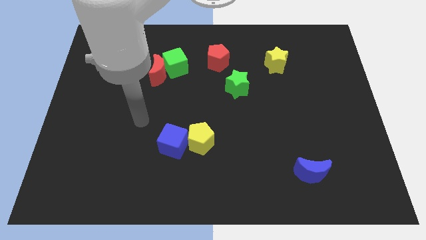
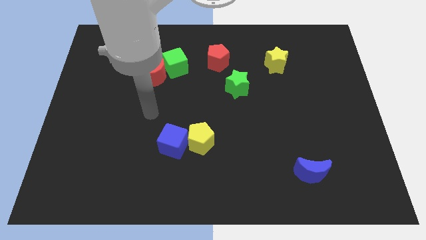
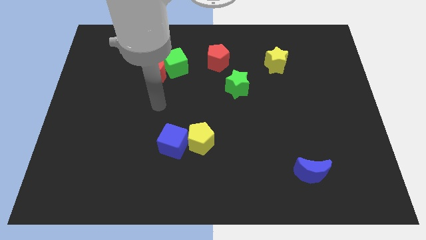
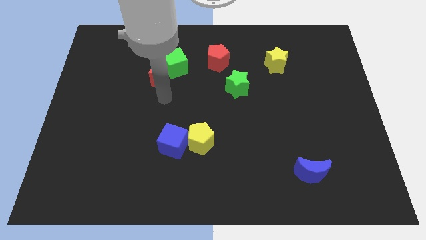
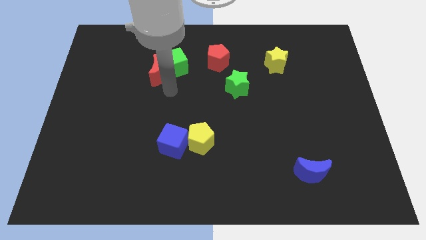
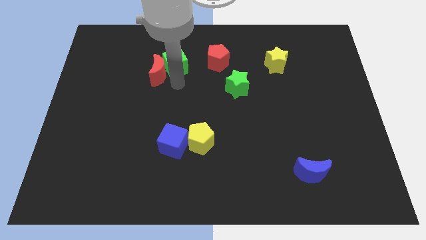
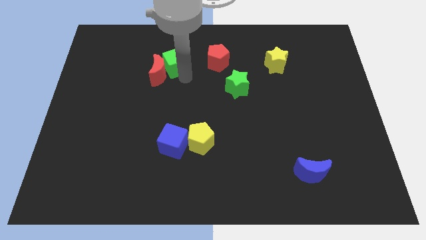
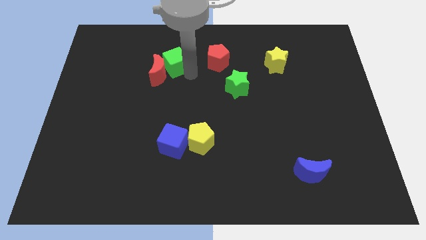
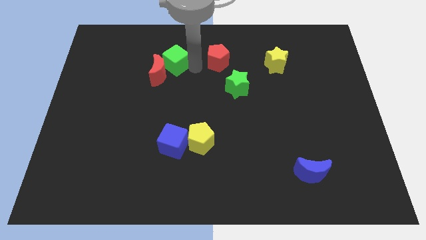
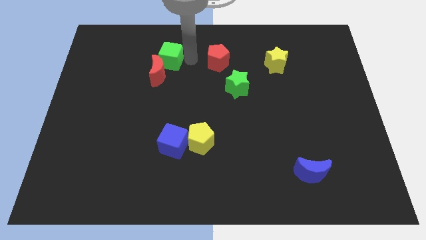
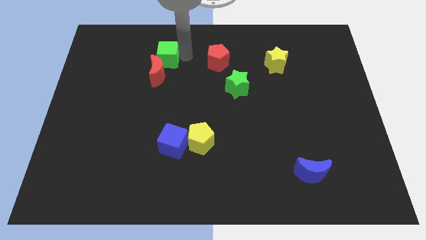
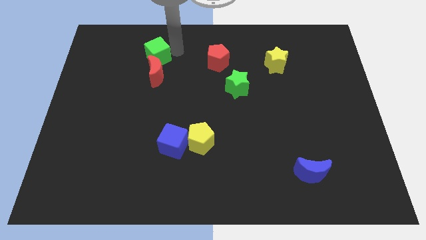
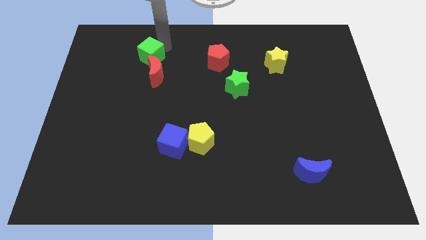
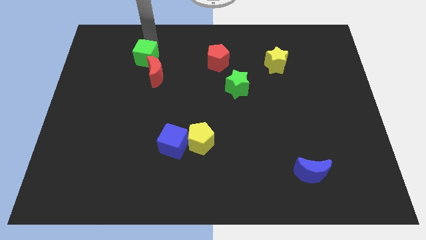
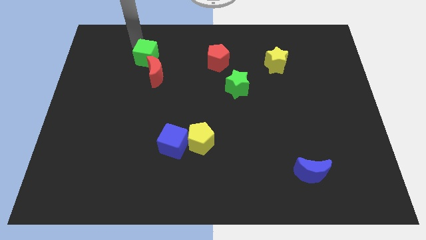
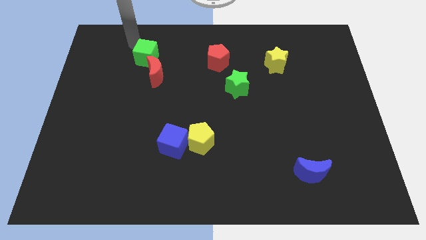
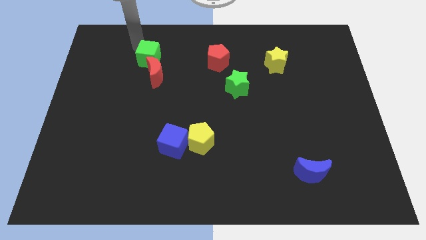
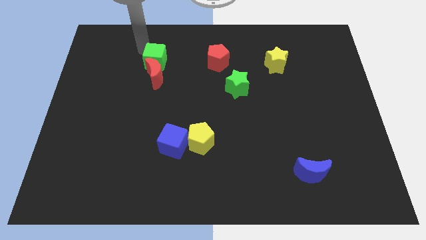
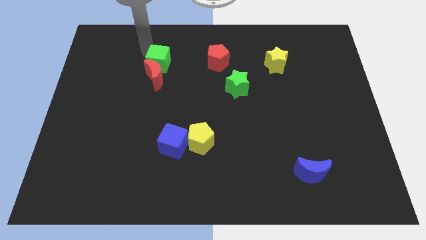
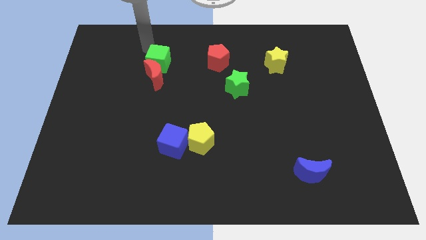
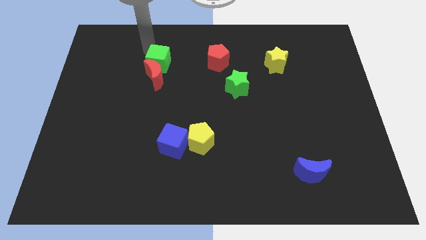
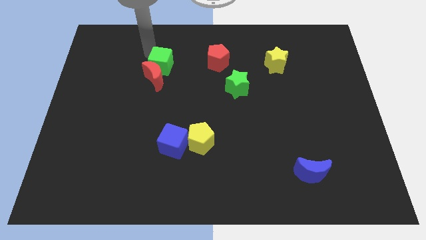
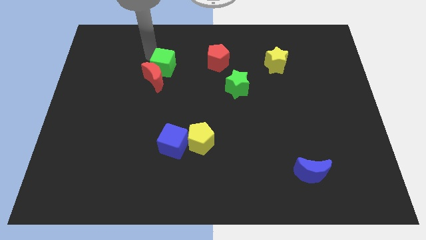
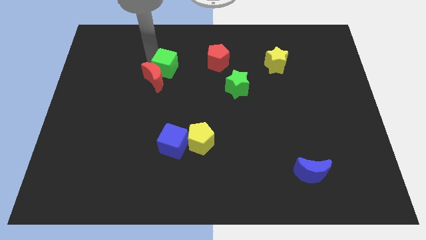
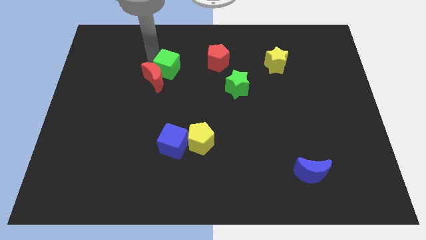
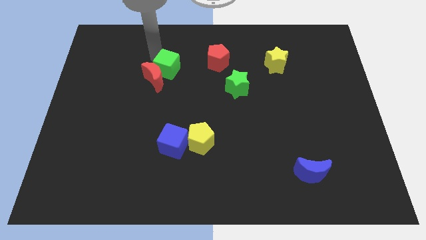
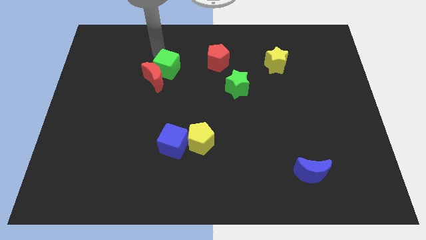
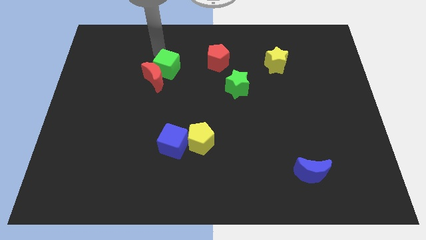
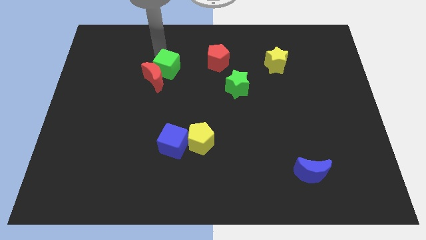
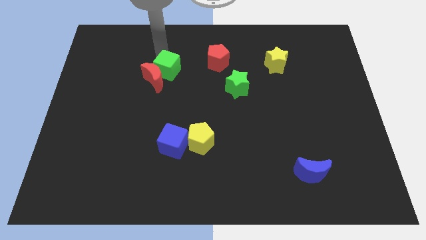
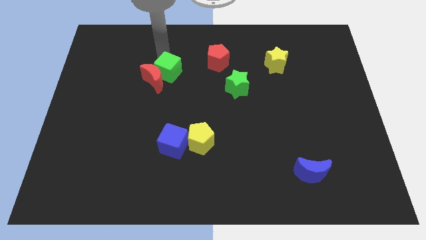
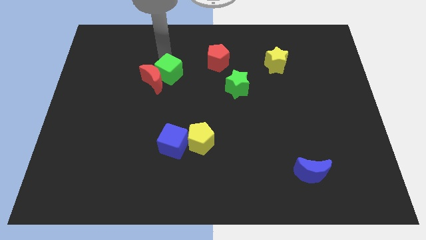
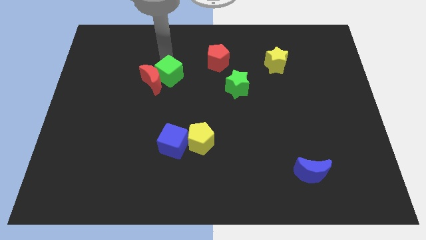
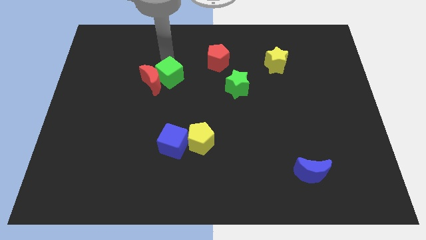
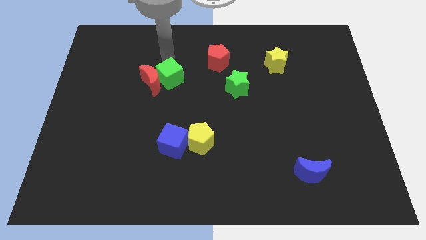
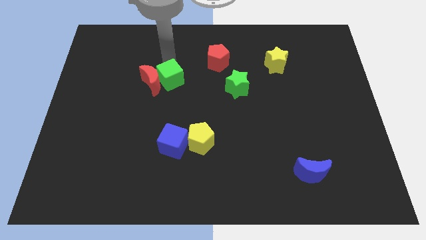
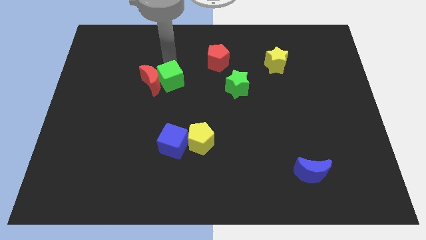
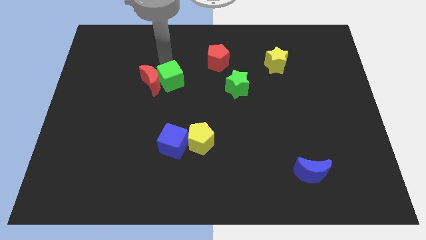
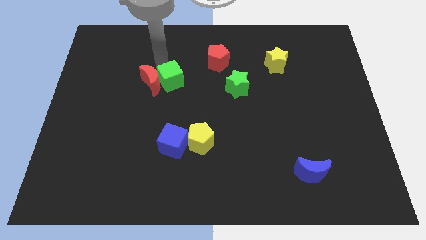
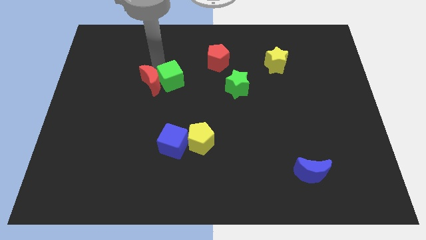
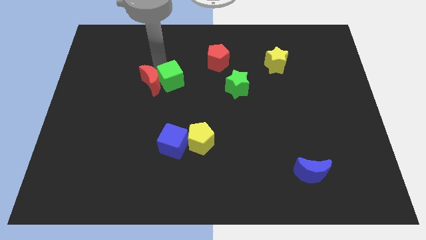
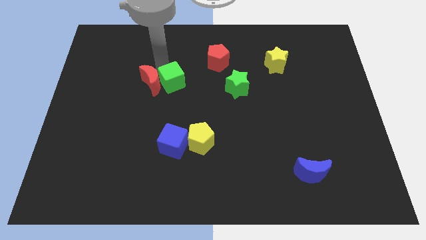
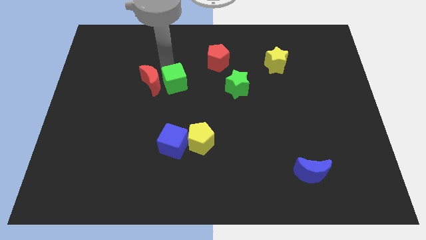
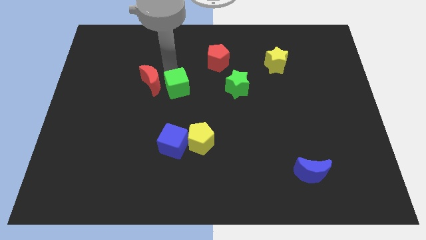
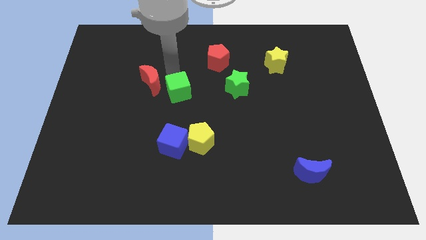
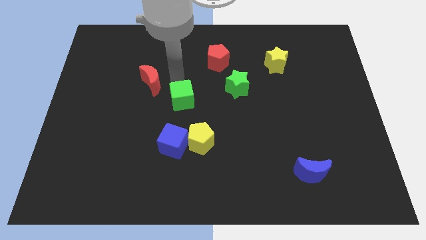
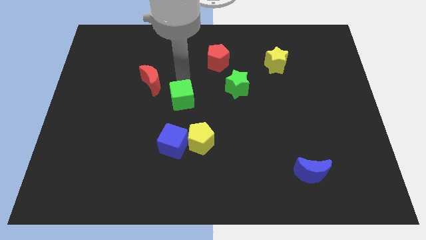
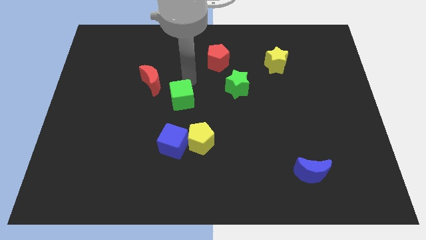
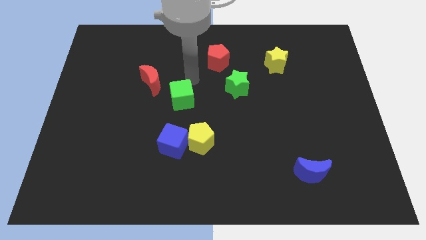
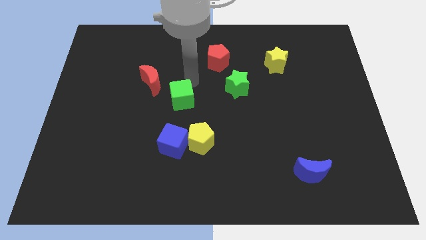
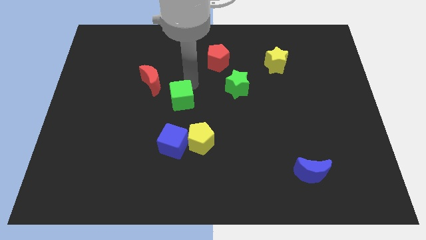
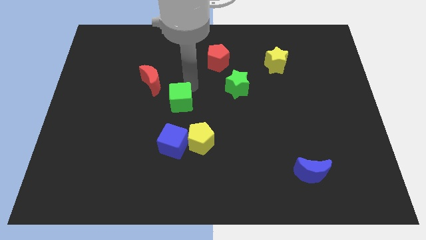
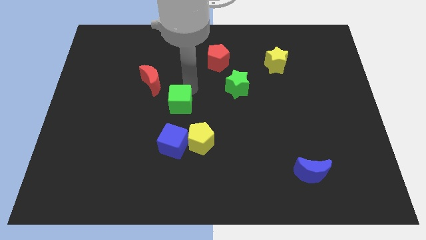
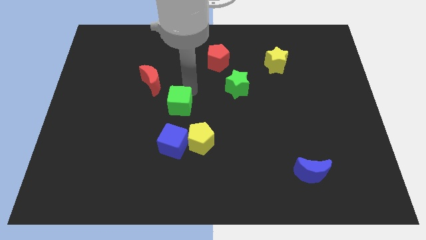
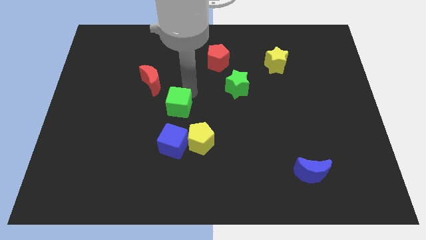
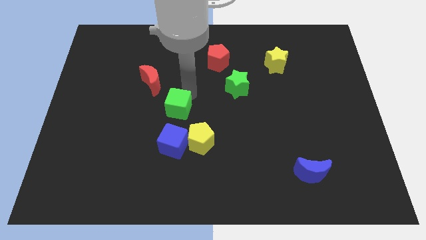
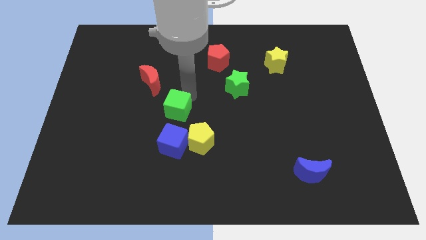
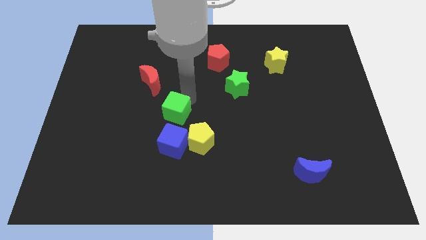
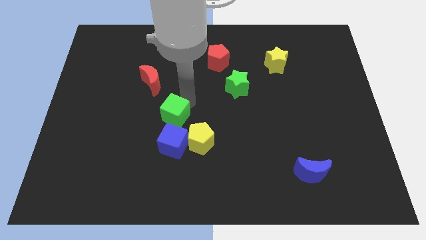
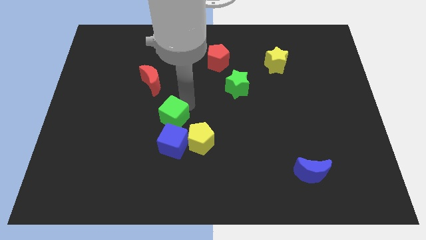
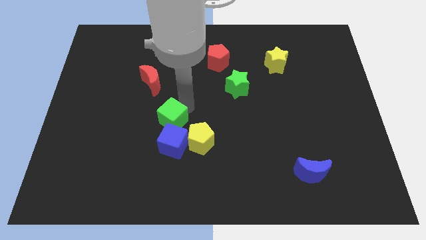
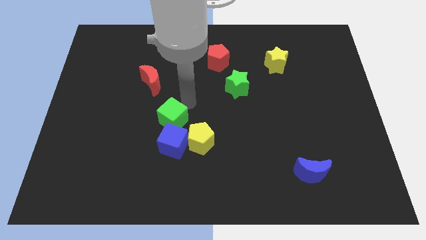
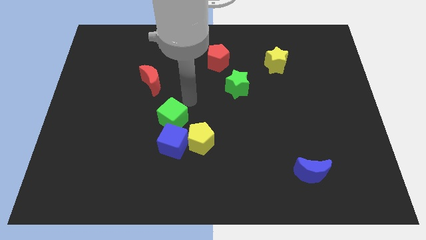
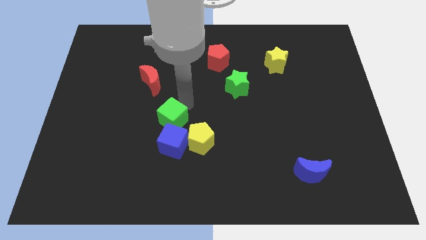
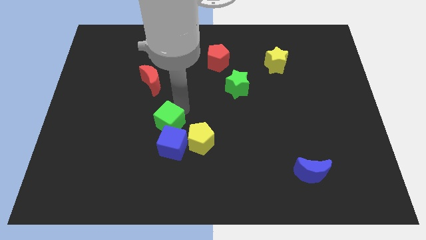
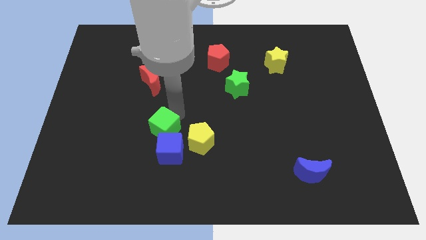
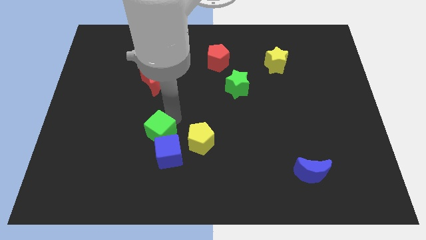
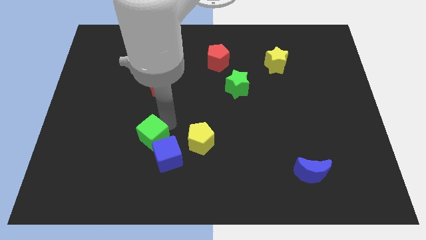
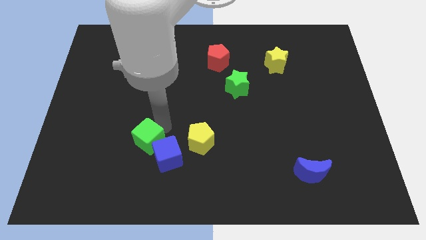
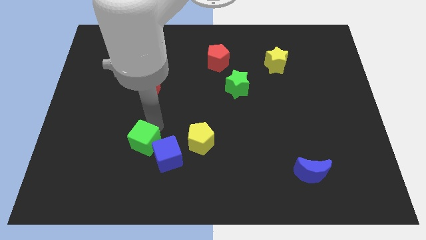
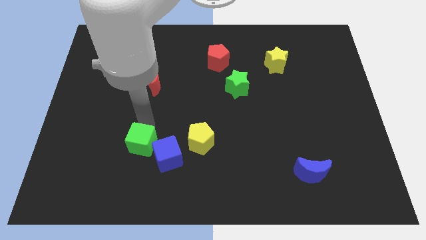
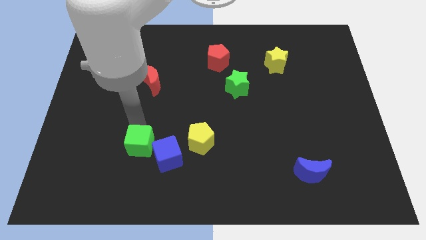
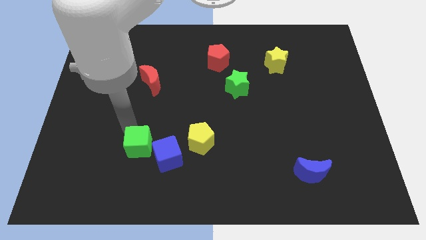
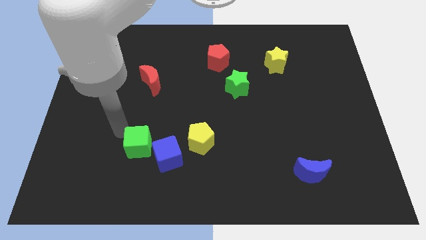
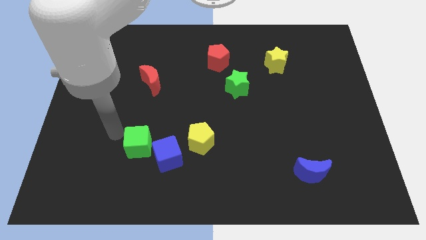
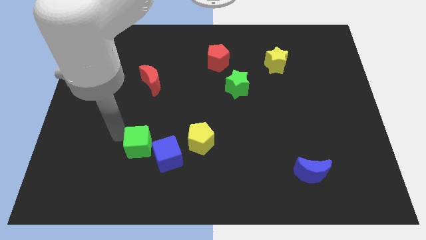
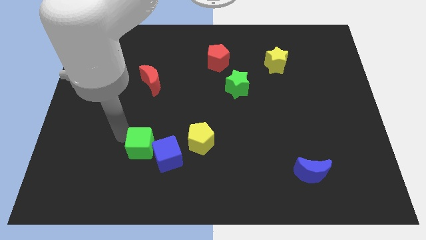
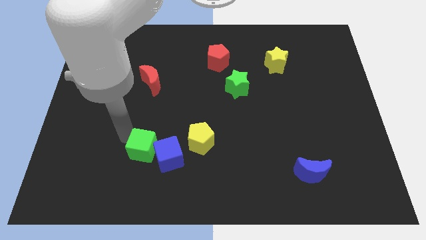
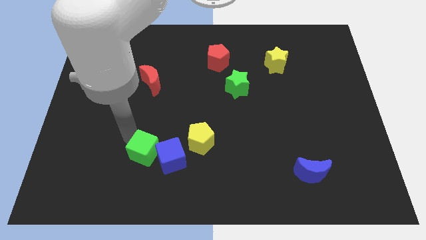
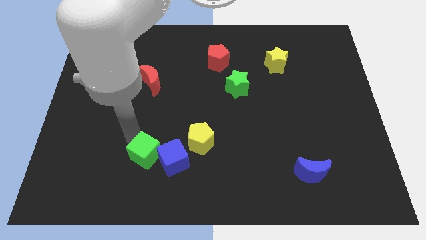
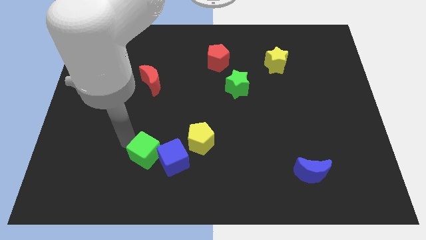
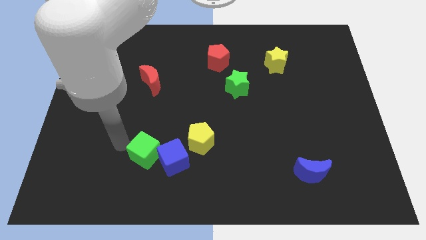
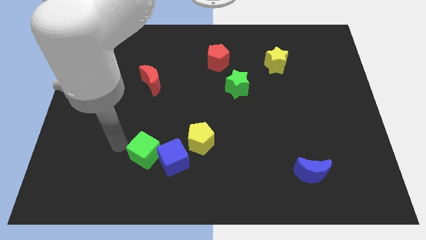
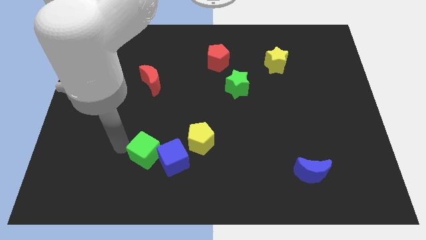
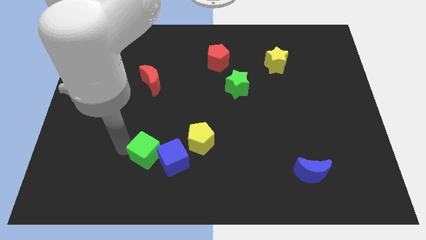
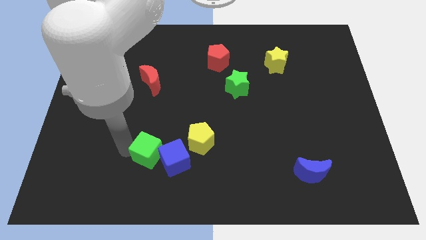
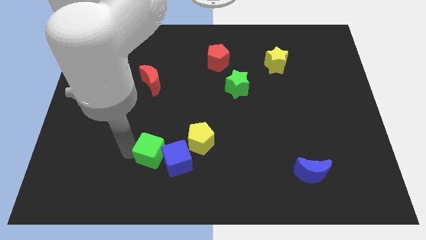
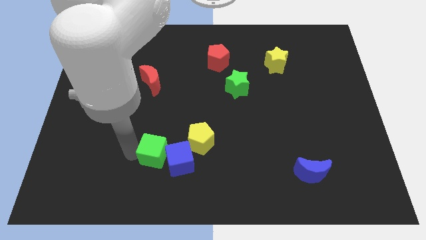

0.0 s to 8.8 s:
slide the green cube to the bottom left of the yellow pentagon
